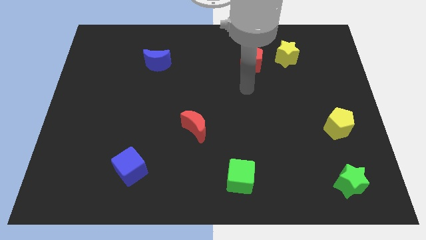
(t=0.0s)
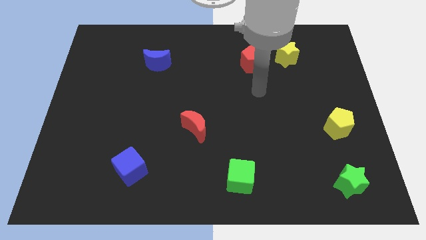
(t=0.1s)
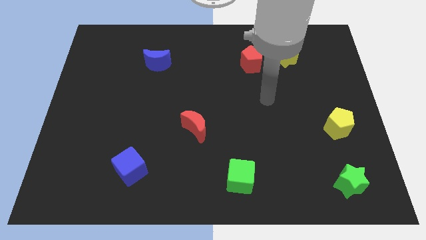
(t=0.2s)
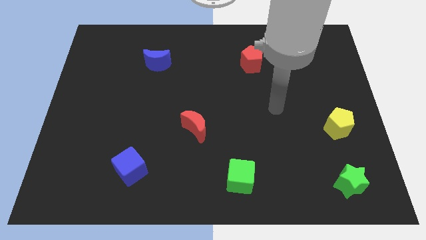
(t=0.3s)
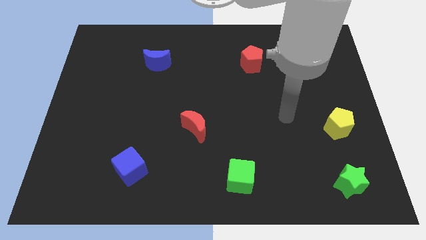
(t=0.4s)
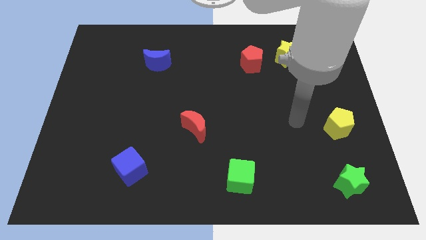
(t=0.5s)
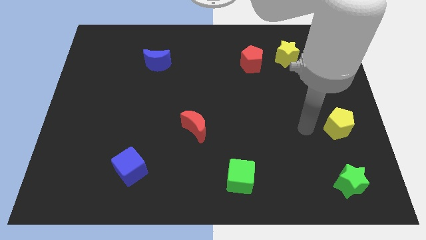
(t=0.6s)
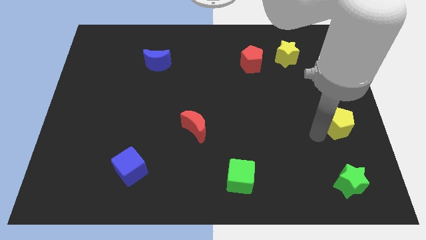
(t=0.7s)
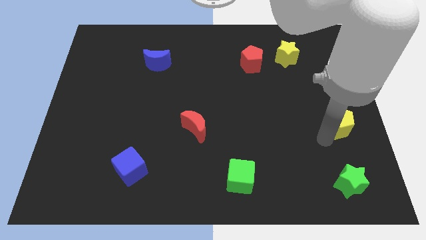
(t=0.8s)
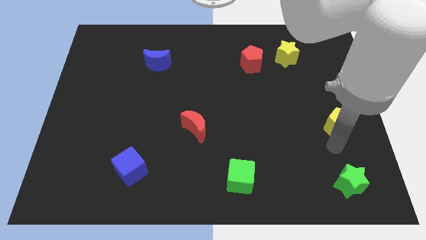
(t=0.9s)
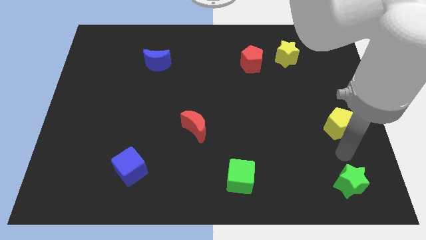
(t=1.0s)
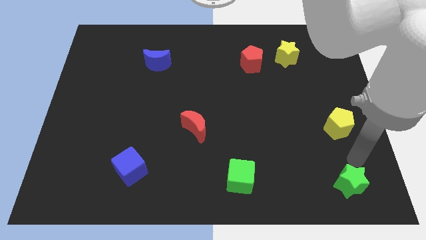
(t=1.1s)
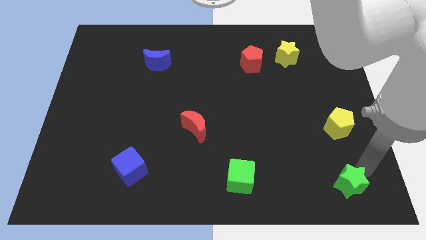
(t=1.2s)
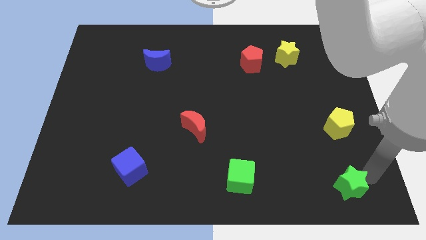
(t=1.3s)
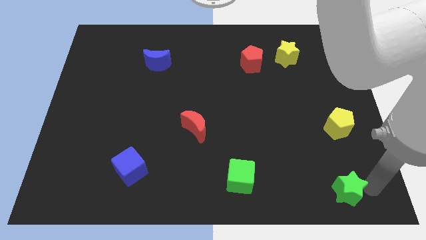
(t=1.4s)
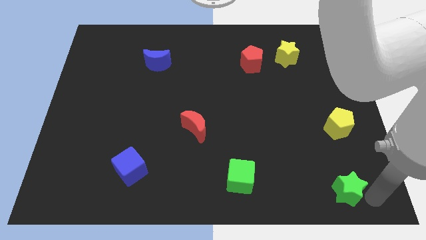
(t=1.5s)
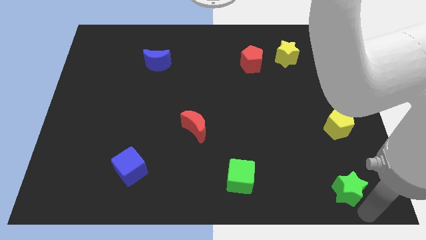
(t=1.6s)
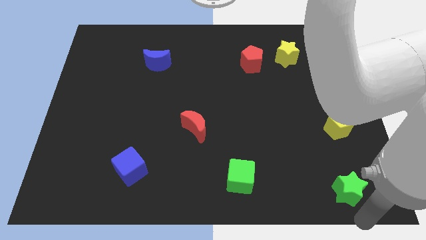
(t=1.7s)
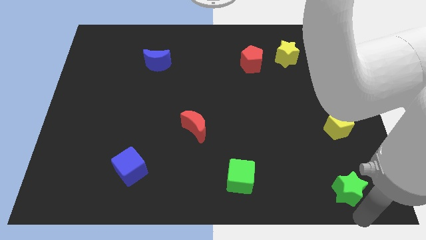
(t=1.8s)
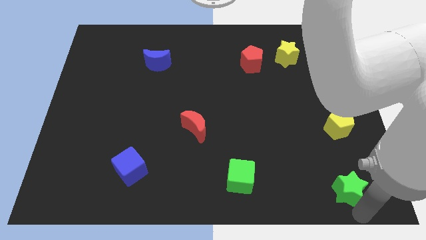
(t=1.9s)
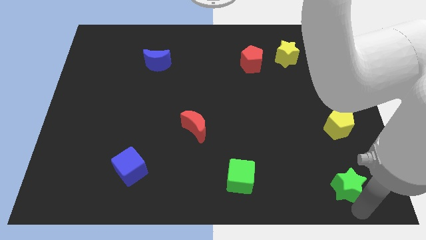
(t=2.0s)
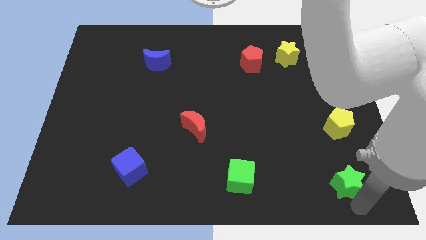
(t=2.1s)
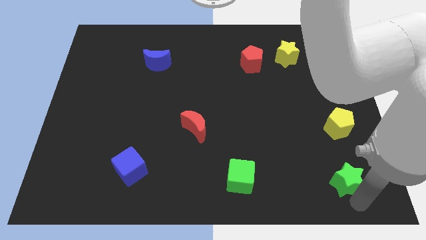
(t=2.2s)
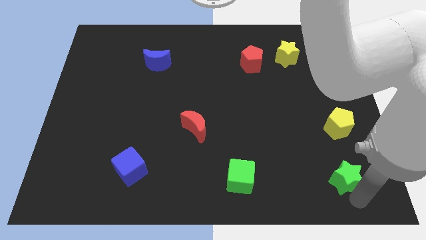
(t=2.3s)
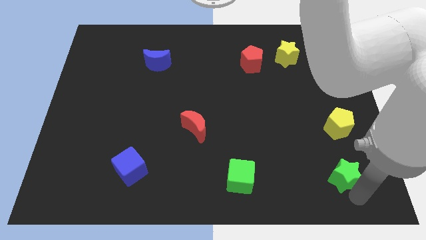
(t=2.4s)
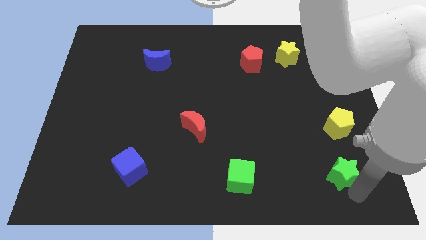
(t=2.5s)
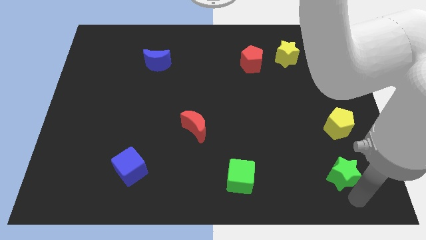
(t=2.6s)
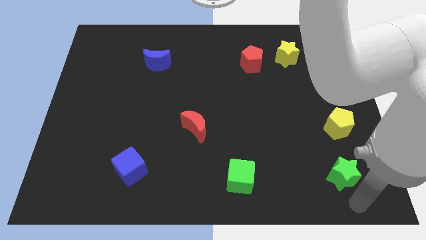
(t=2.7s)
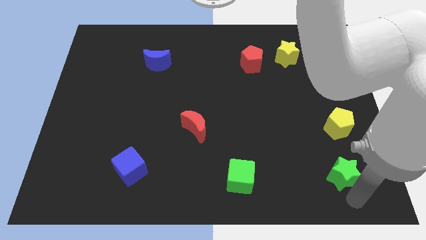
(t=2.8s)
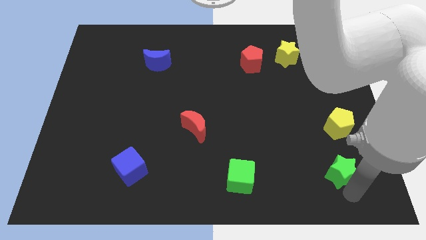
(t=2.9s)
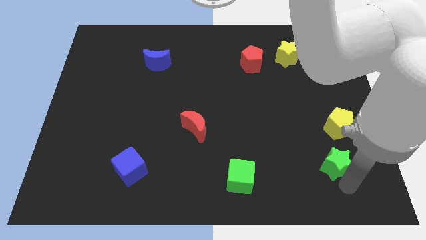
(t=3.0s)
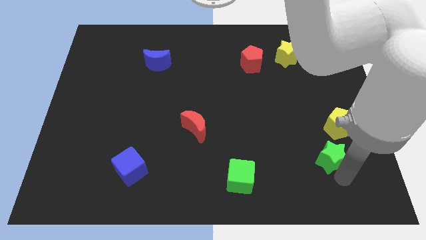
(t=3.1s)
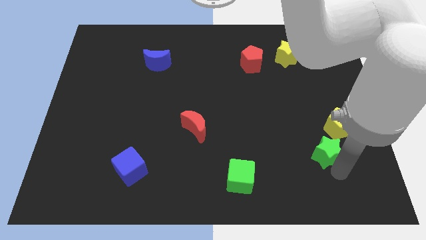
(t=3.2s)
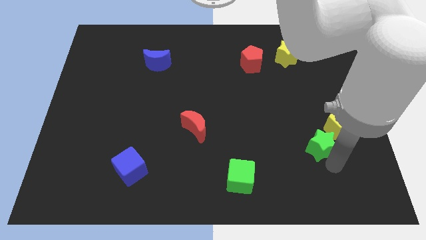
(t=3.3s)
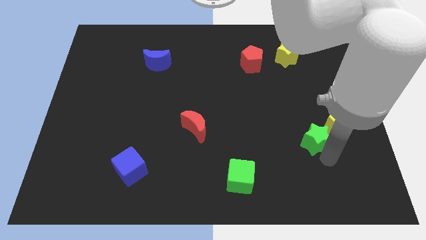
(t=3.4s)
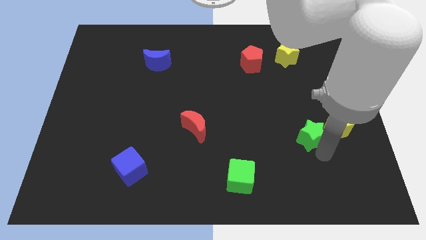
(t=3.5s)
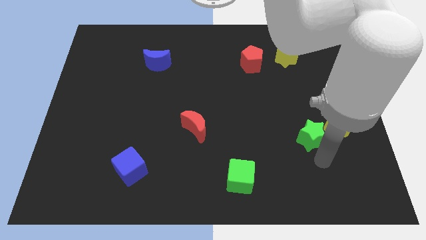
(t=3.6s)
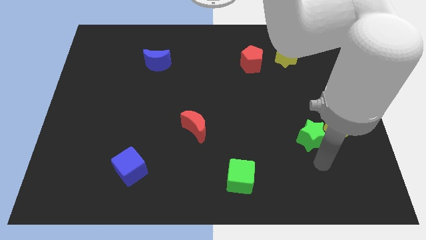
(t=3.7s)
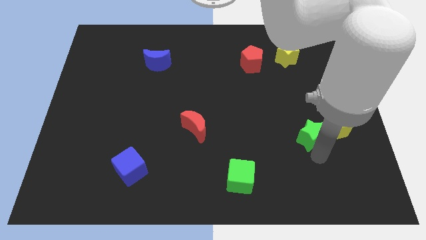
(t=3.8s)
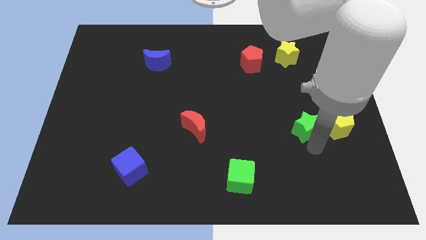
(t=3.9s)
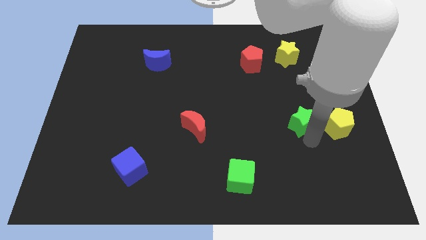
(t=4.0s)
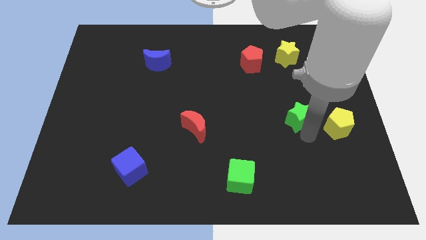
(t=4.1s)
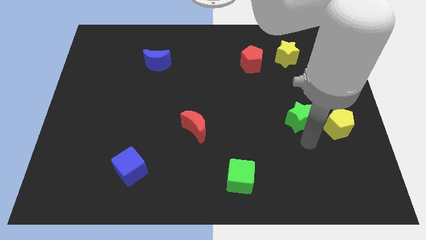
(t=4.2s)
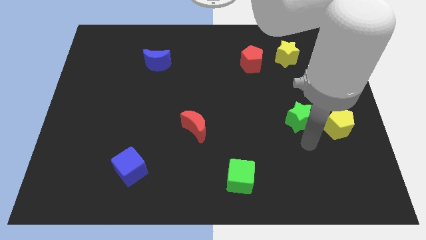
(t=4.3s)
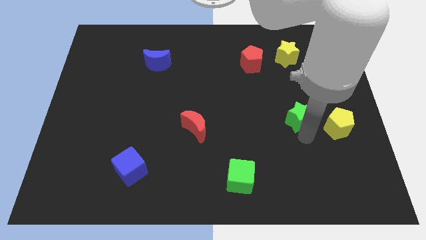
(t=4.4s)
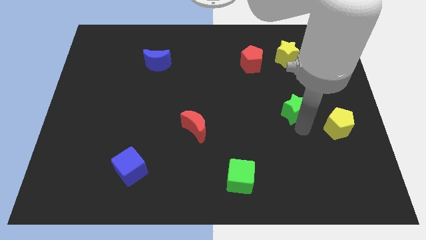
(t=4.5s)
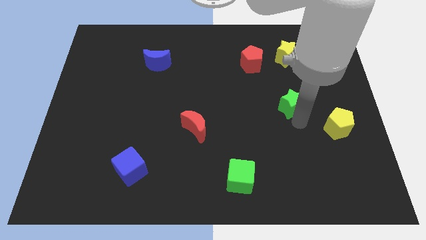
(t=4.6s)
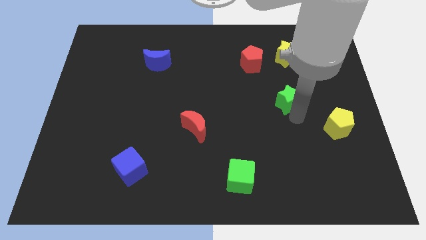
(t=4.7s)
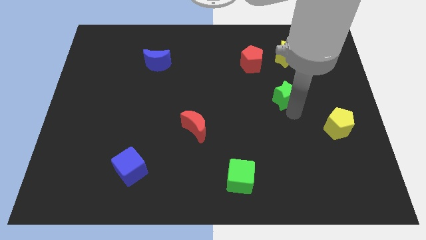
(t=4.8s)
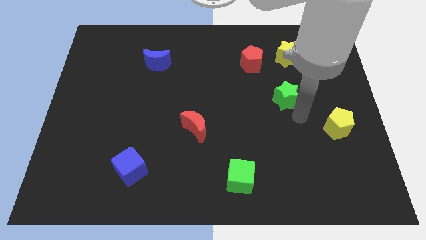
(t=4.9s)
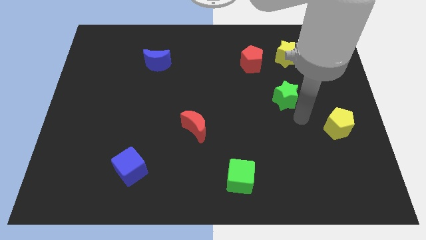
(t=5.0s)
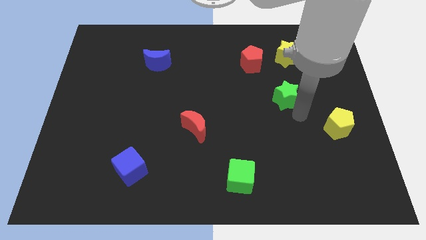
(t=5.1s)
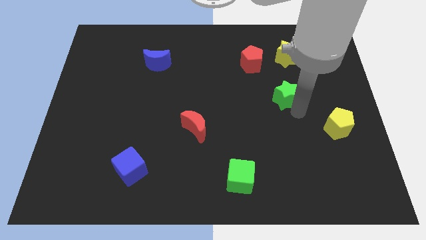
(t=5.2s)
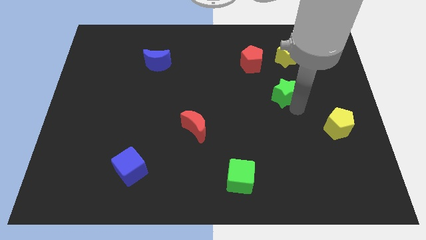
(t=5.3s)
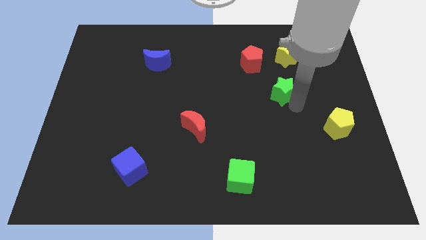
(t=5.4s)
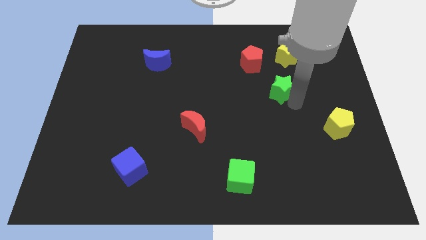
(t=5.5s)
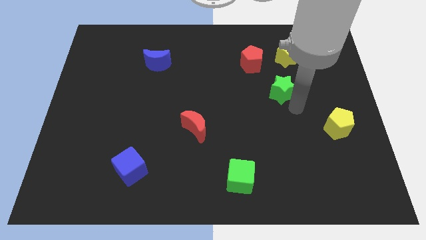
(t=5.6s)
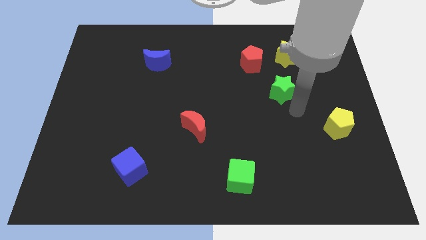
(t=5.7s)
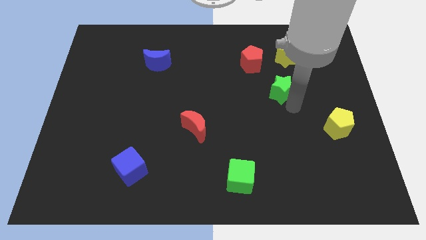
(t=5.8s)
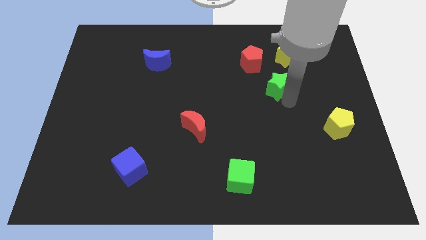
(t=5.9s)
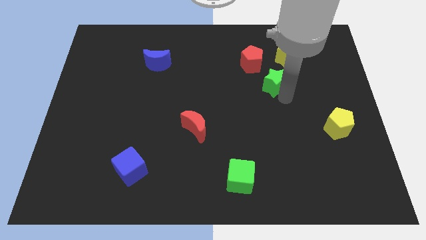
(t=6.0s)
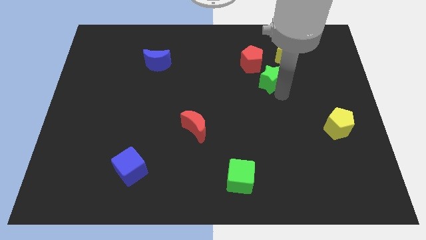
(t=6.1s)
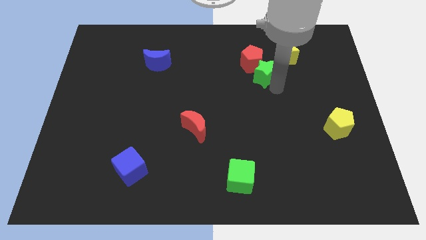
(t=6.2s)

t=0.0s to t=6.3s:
put the green star towards the red pentagon

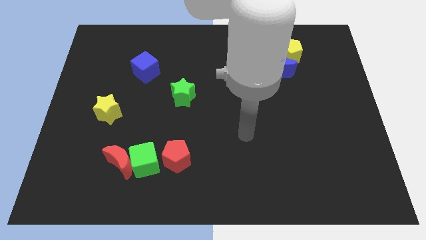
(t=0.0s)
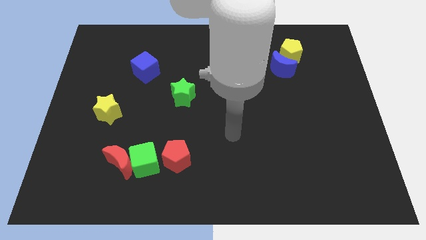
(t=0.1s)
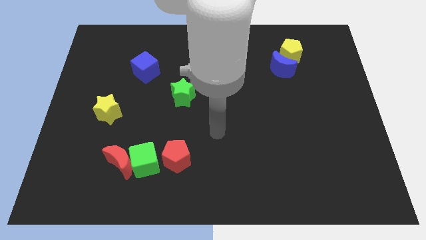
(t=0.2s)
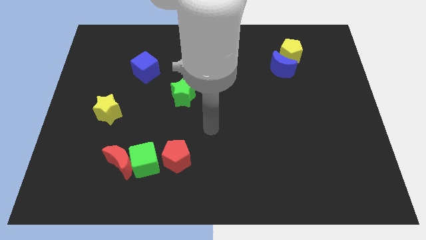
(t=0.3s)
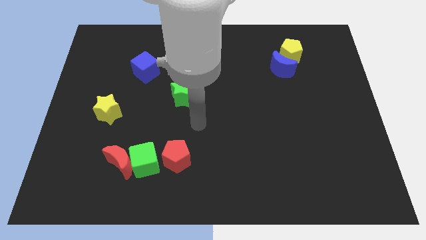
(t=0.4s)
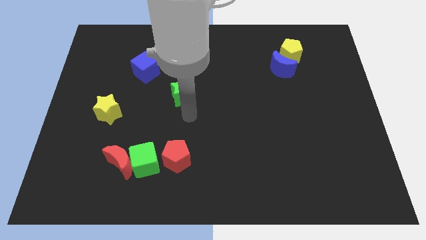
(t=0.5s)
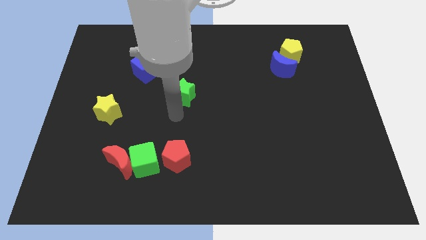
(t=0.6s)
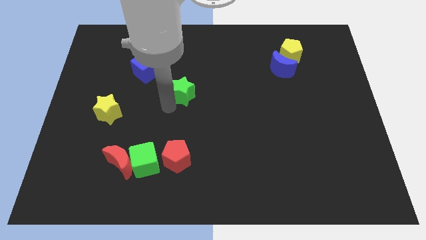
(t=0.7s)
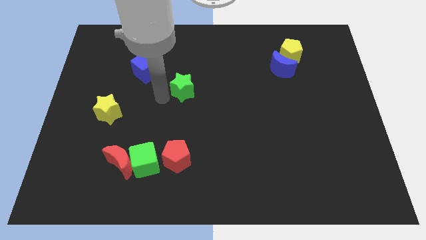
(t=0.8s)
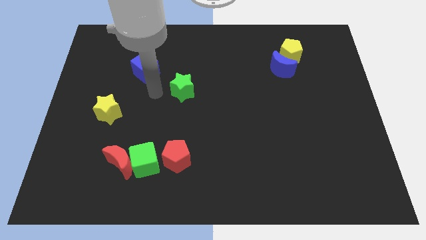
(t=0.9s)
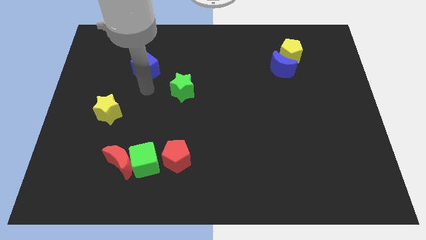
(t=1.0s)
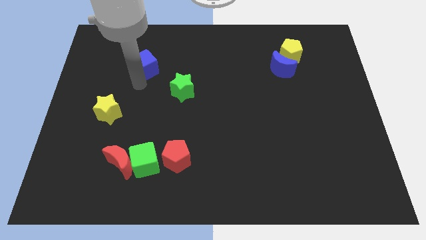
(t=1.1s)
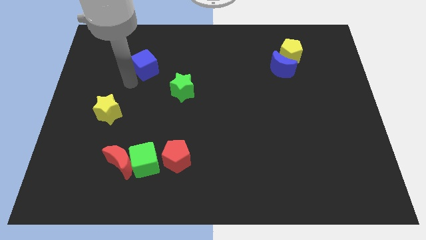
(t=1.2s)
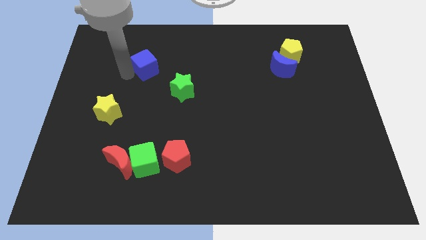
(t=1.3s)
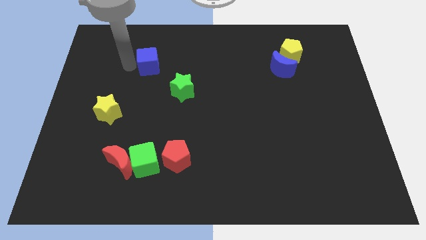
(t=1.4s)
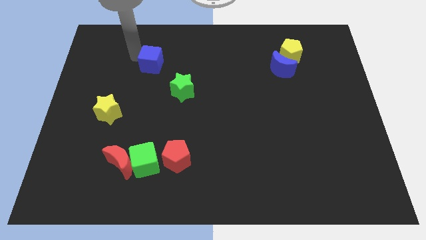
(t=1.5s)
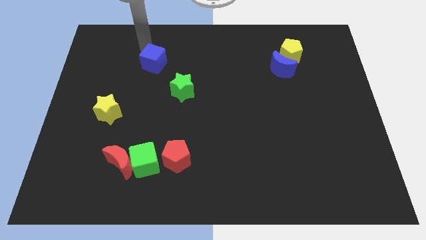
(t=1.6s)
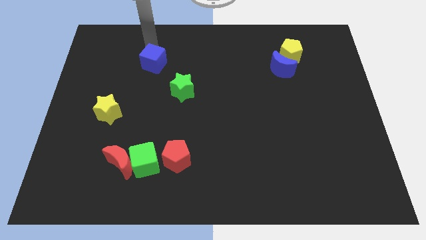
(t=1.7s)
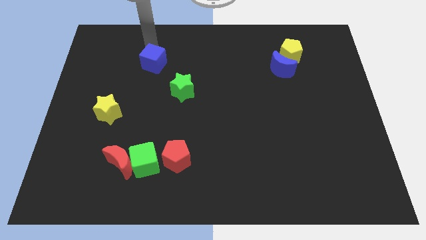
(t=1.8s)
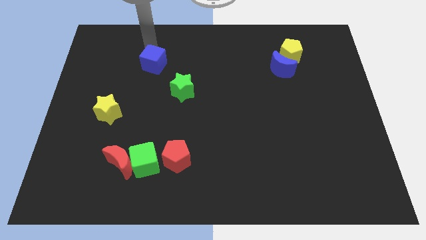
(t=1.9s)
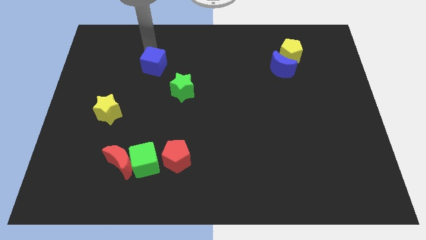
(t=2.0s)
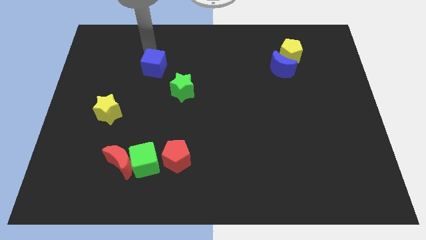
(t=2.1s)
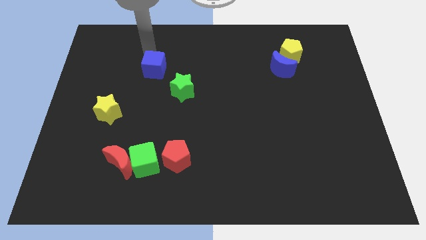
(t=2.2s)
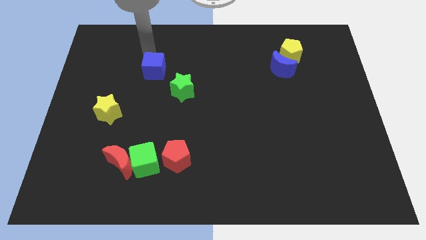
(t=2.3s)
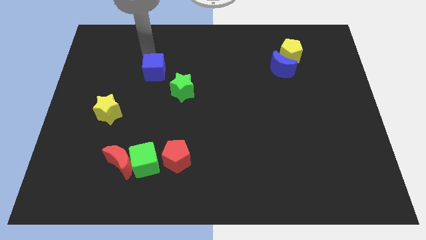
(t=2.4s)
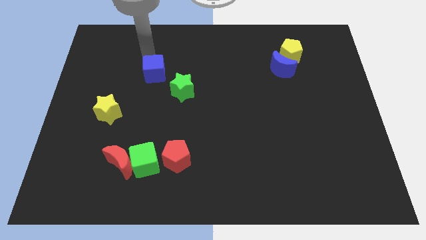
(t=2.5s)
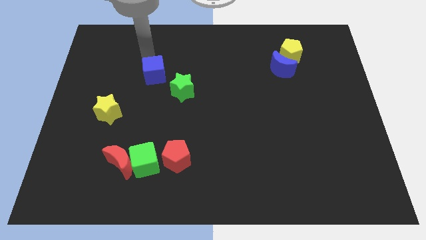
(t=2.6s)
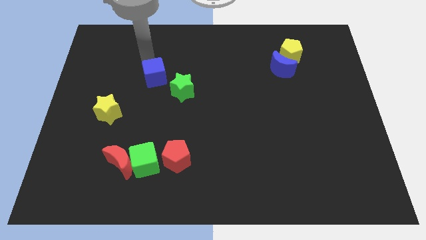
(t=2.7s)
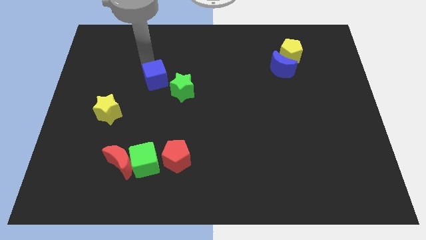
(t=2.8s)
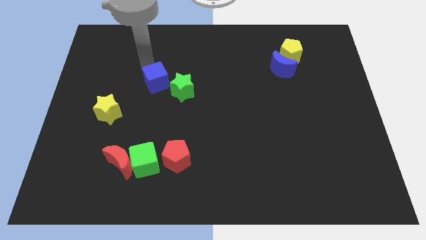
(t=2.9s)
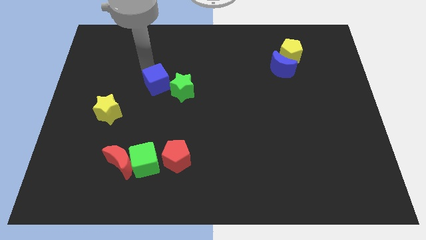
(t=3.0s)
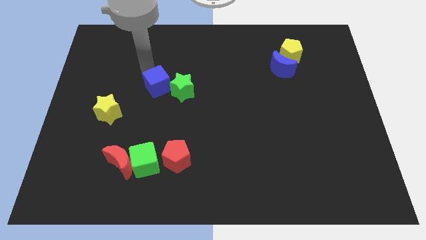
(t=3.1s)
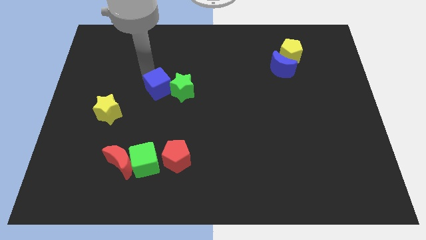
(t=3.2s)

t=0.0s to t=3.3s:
slide the blue cube to the green star
